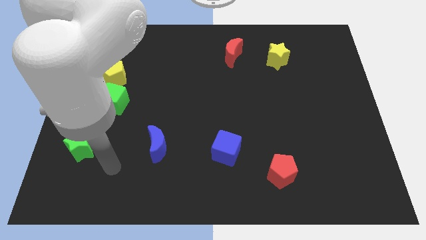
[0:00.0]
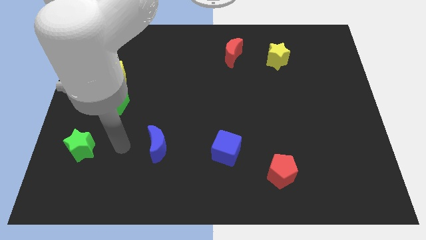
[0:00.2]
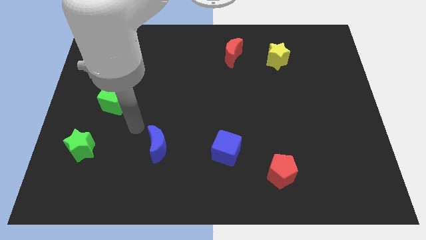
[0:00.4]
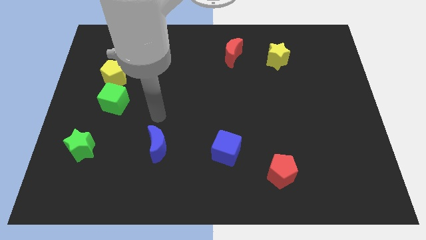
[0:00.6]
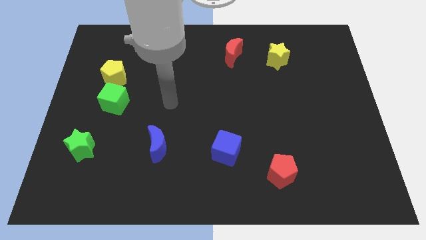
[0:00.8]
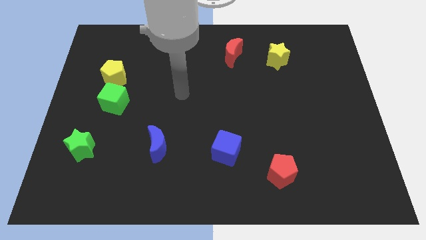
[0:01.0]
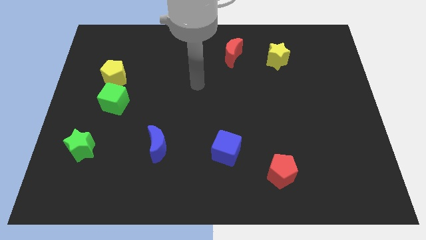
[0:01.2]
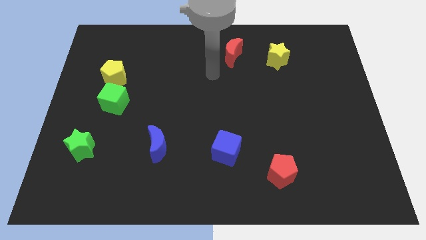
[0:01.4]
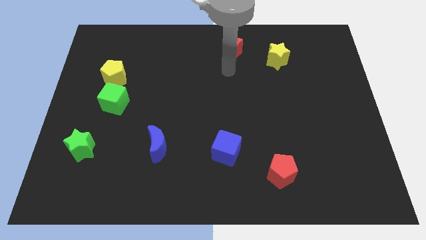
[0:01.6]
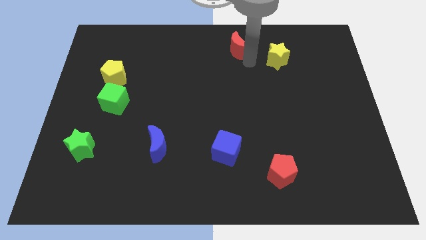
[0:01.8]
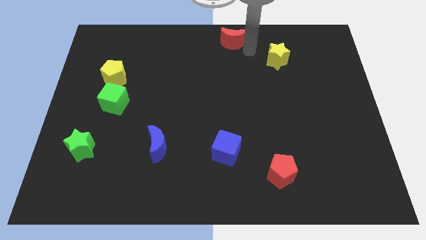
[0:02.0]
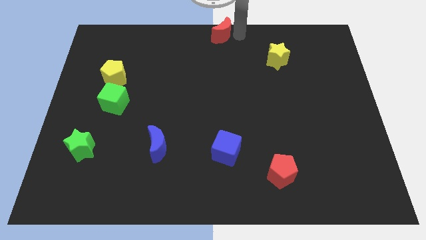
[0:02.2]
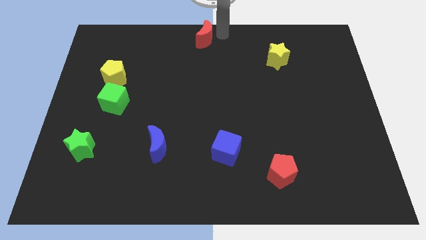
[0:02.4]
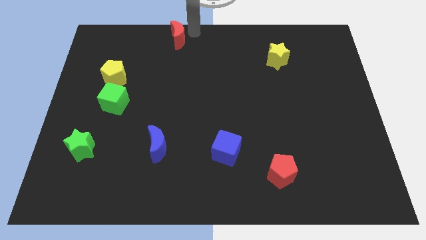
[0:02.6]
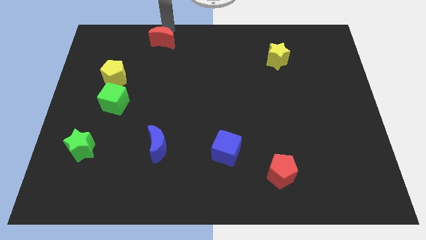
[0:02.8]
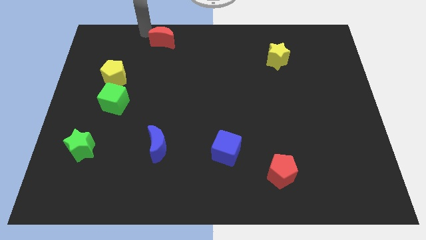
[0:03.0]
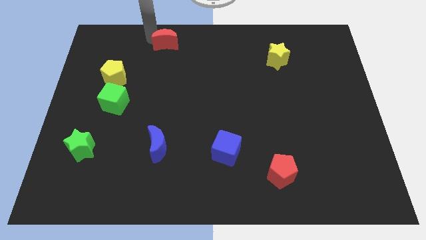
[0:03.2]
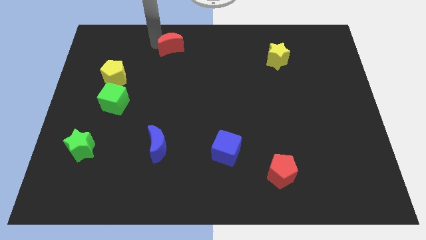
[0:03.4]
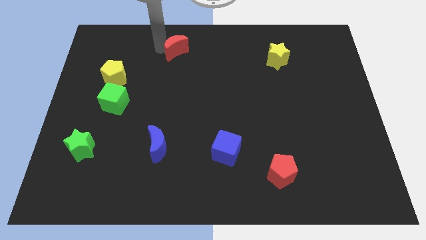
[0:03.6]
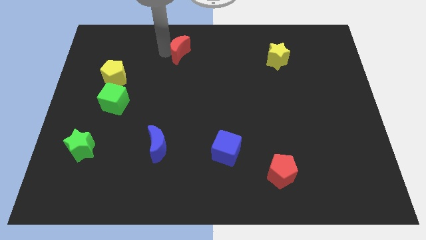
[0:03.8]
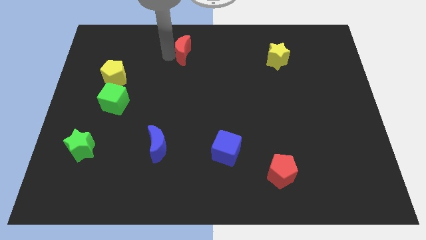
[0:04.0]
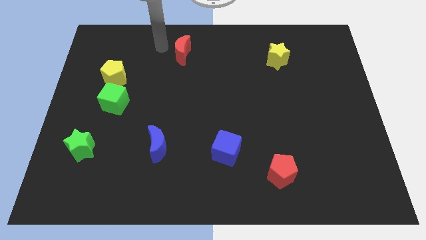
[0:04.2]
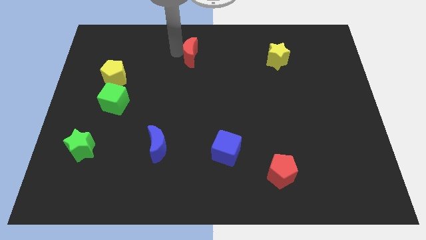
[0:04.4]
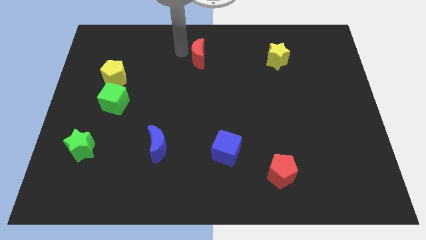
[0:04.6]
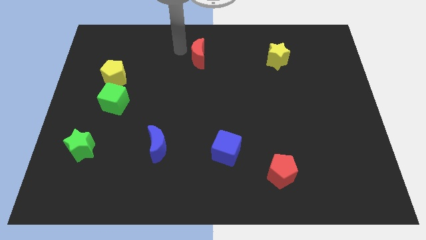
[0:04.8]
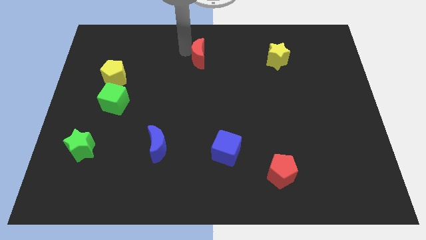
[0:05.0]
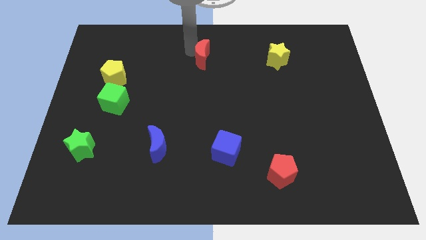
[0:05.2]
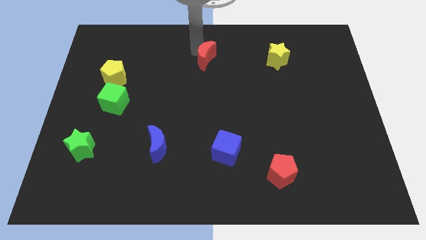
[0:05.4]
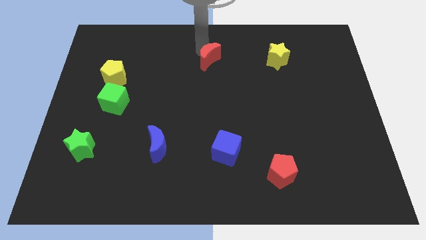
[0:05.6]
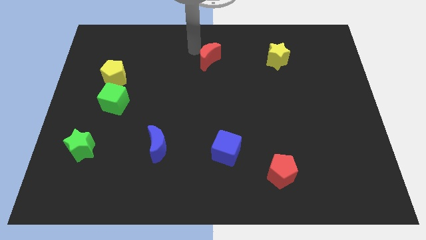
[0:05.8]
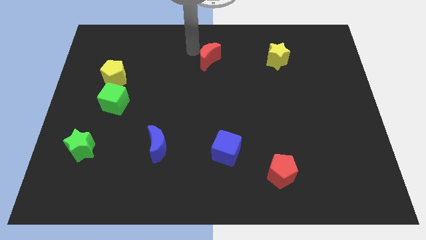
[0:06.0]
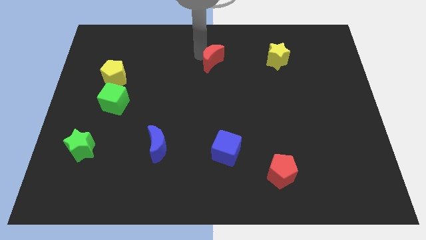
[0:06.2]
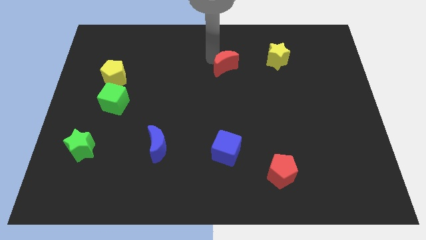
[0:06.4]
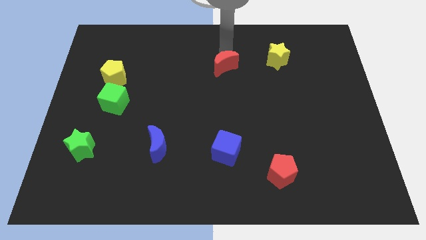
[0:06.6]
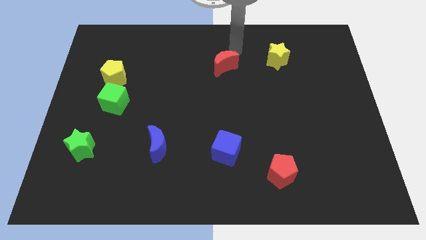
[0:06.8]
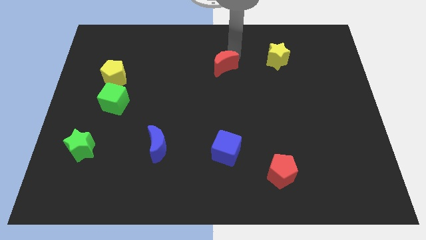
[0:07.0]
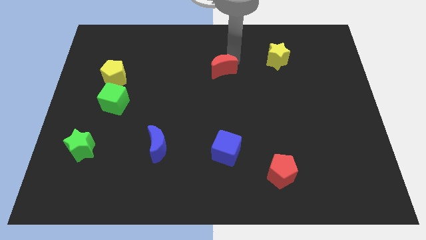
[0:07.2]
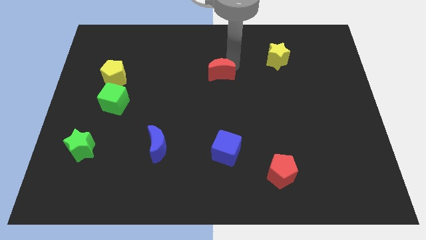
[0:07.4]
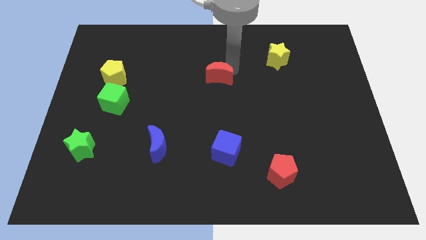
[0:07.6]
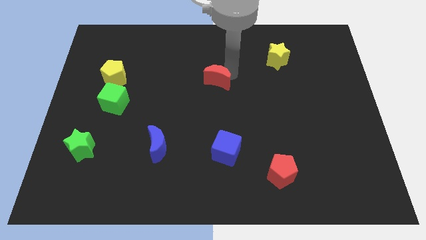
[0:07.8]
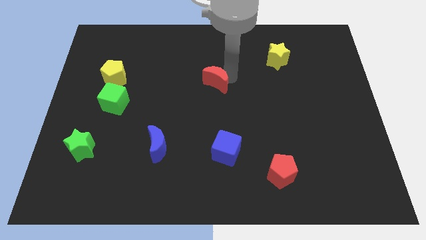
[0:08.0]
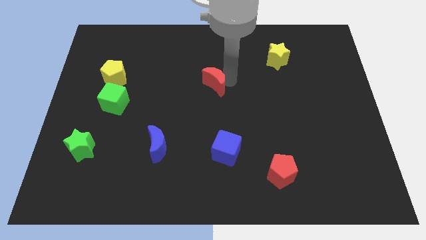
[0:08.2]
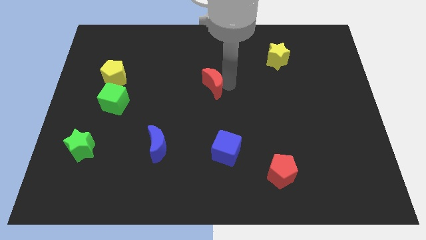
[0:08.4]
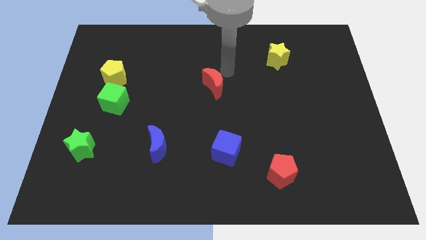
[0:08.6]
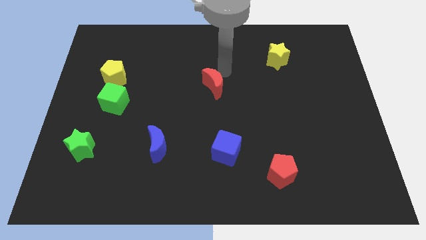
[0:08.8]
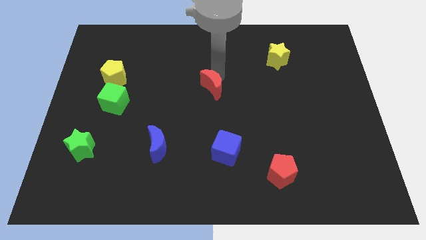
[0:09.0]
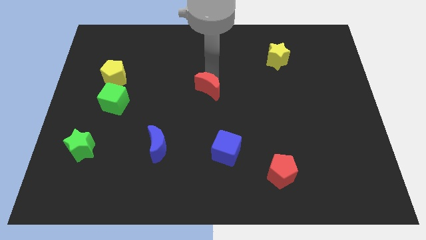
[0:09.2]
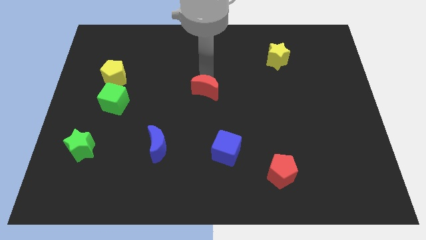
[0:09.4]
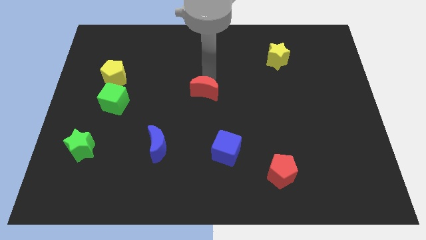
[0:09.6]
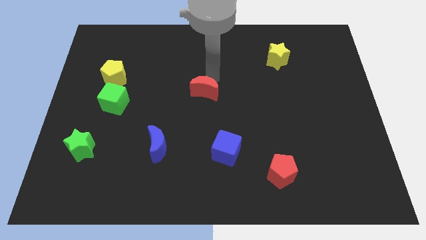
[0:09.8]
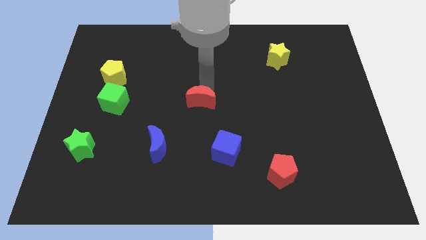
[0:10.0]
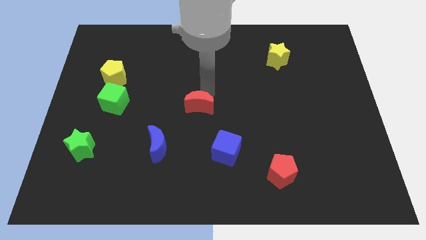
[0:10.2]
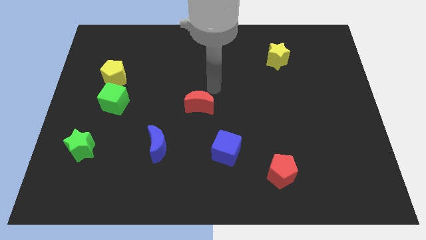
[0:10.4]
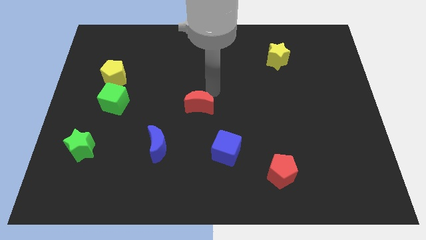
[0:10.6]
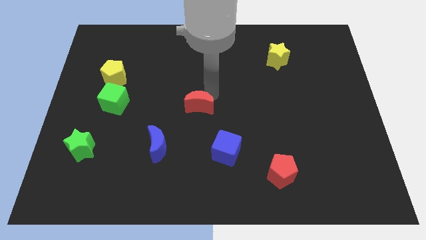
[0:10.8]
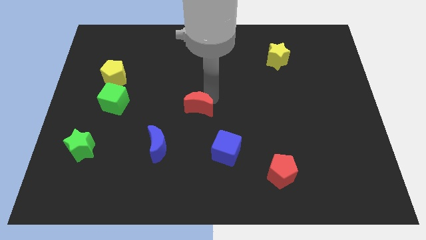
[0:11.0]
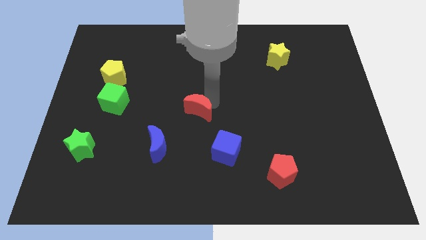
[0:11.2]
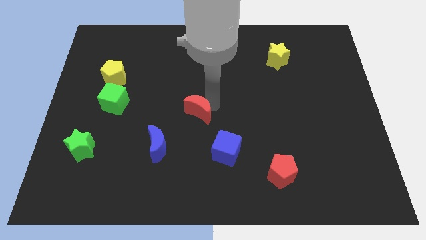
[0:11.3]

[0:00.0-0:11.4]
push the red moon to the top right side of the blue moon

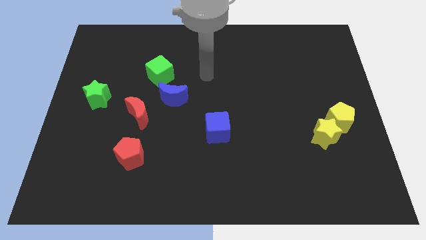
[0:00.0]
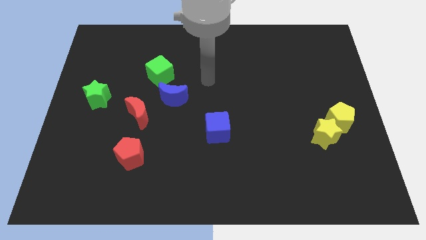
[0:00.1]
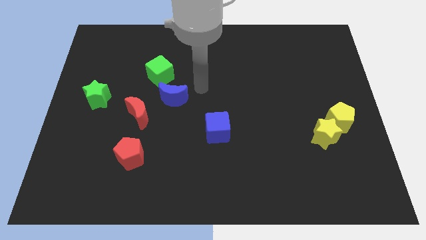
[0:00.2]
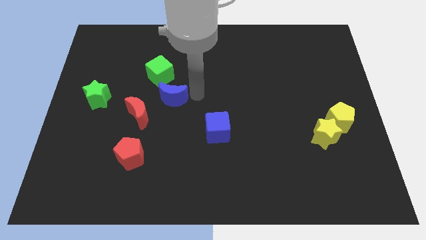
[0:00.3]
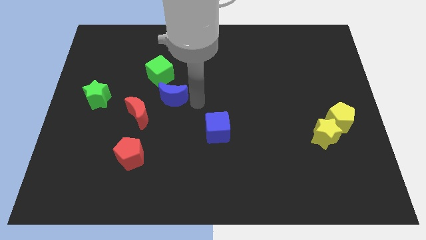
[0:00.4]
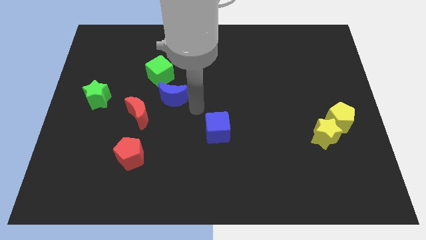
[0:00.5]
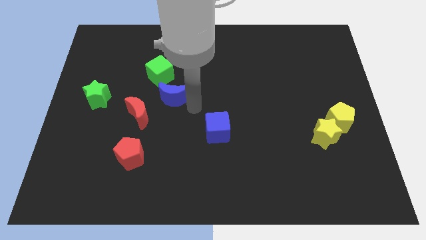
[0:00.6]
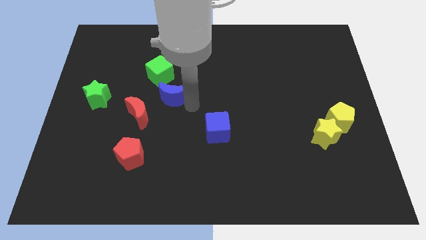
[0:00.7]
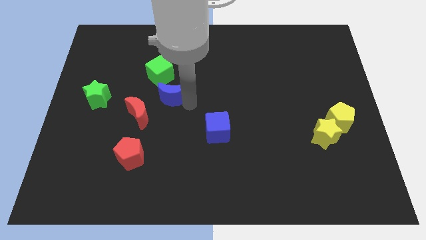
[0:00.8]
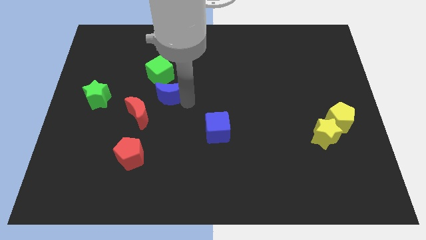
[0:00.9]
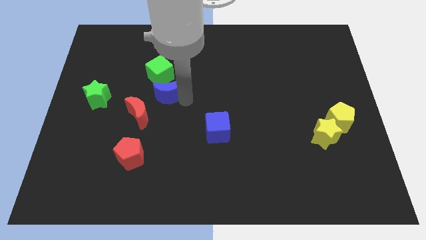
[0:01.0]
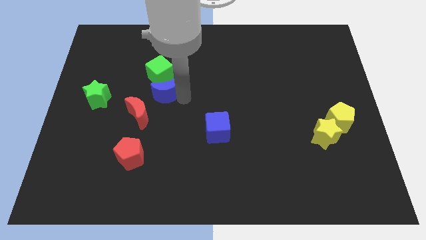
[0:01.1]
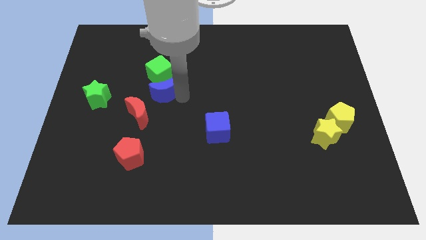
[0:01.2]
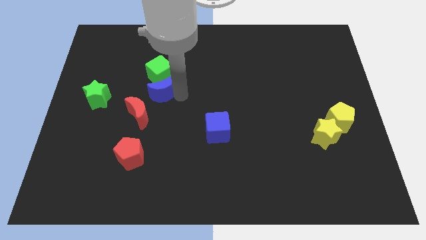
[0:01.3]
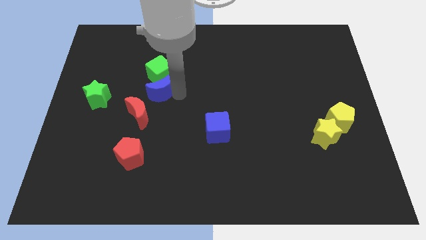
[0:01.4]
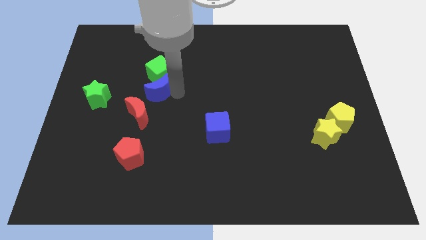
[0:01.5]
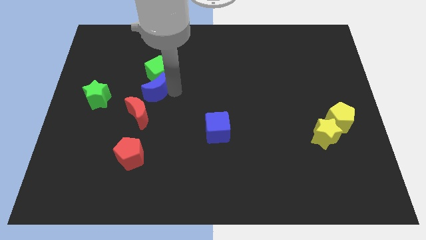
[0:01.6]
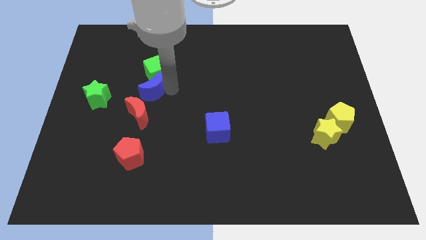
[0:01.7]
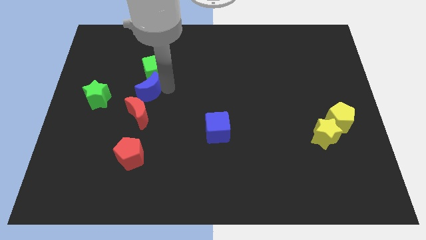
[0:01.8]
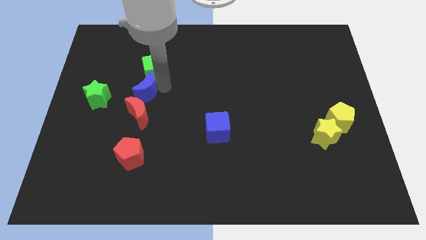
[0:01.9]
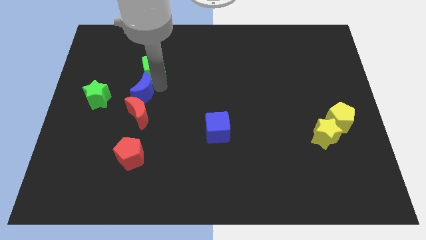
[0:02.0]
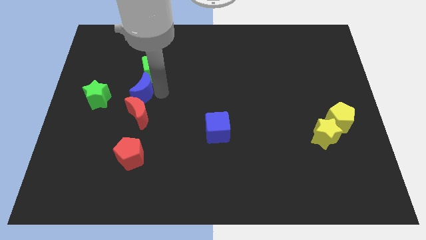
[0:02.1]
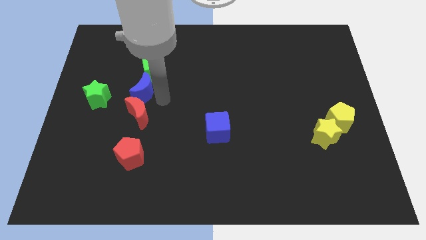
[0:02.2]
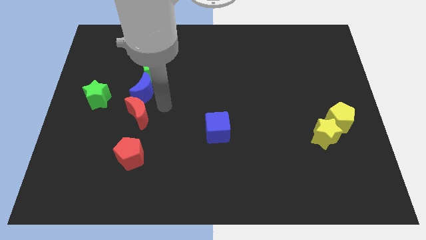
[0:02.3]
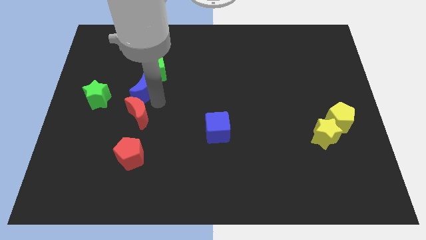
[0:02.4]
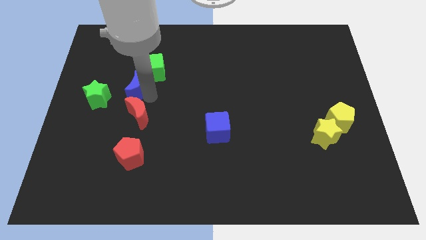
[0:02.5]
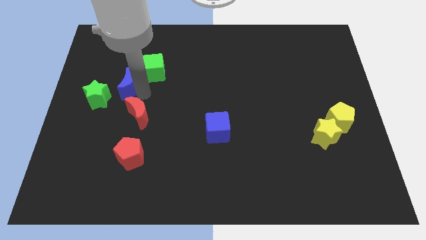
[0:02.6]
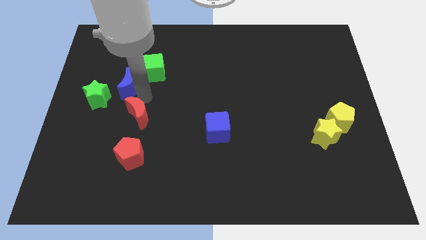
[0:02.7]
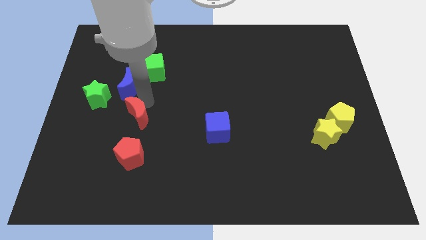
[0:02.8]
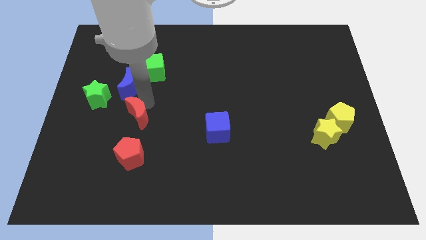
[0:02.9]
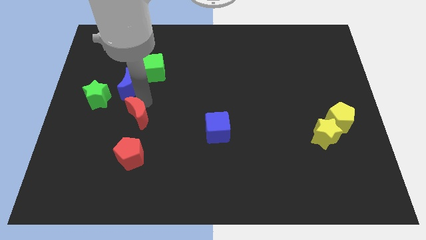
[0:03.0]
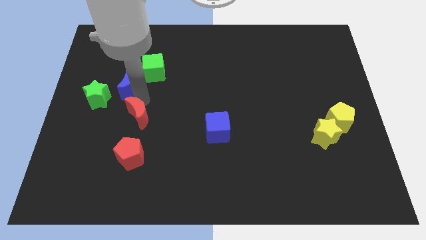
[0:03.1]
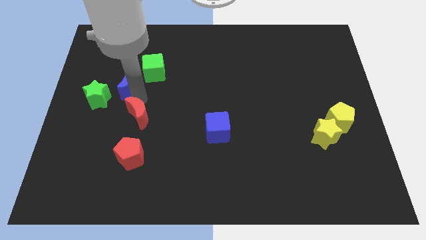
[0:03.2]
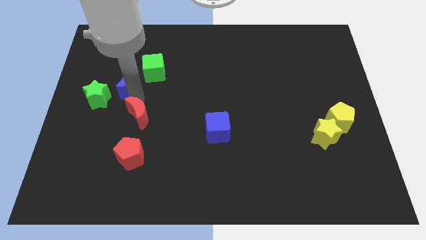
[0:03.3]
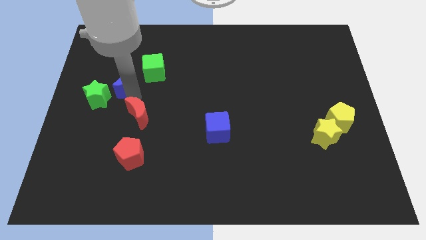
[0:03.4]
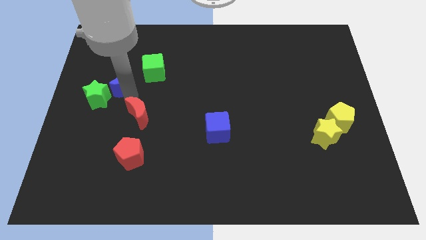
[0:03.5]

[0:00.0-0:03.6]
push the blue moon left of the green cube
